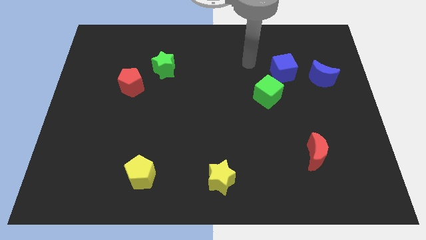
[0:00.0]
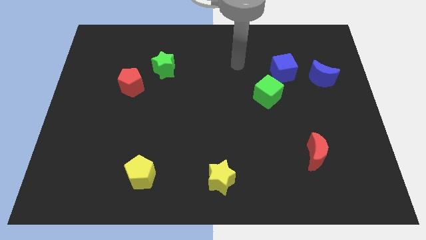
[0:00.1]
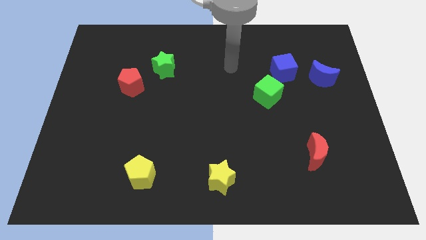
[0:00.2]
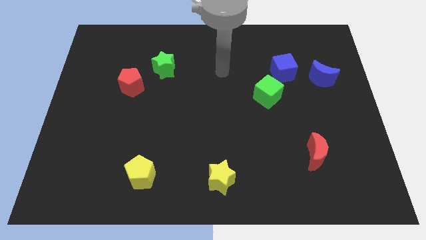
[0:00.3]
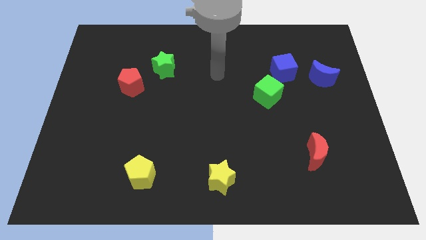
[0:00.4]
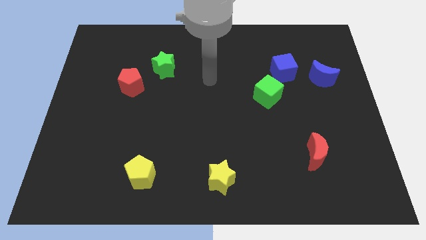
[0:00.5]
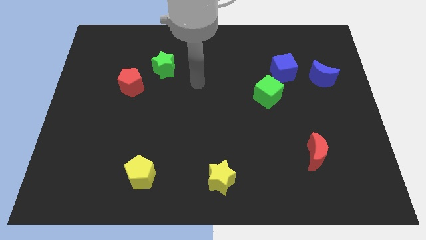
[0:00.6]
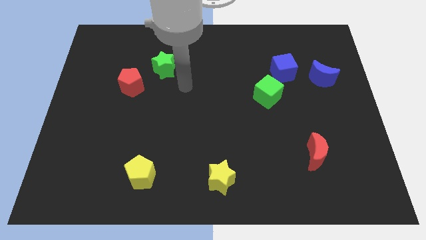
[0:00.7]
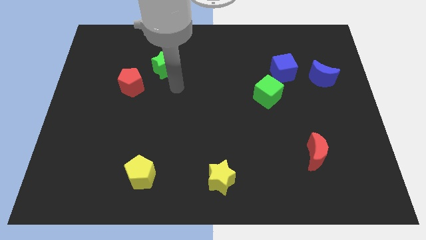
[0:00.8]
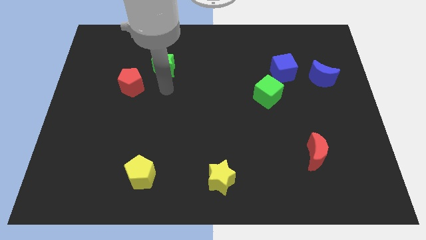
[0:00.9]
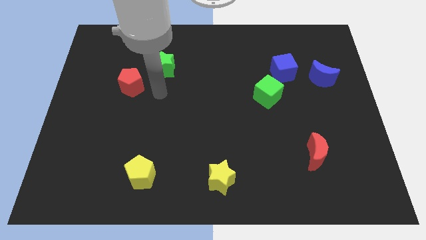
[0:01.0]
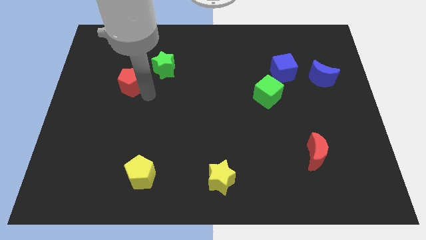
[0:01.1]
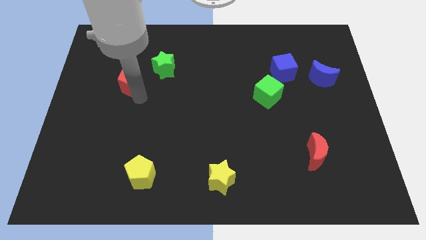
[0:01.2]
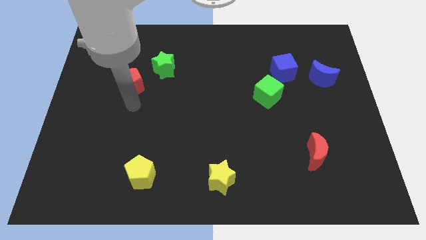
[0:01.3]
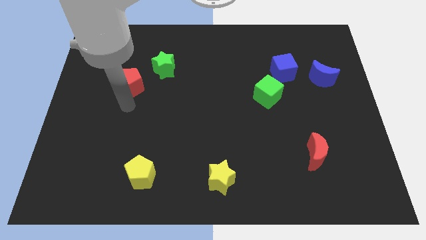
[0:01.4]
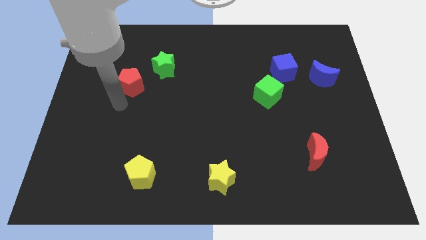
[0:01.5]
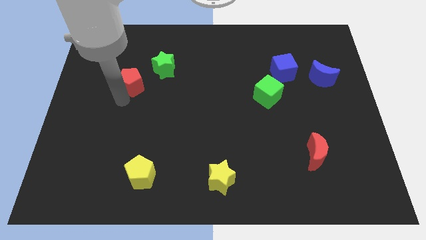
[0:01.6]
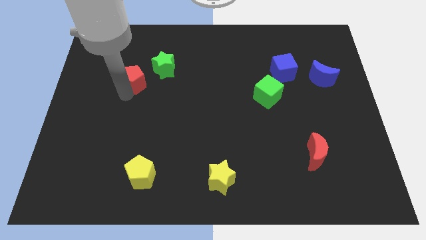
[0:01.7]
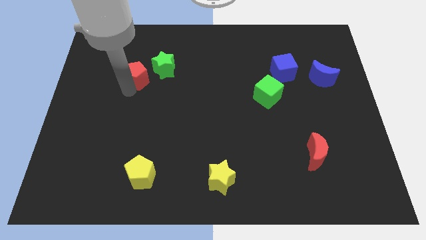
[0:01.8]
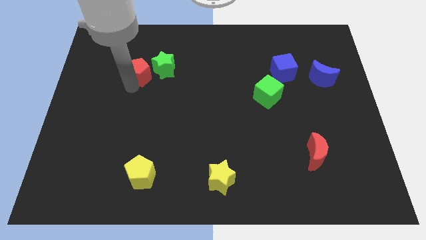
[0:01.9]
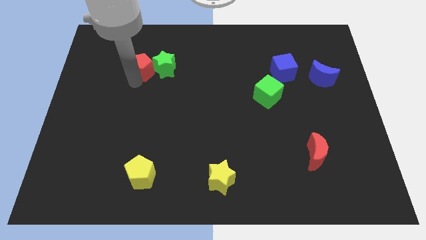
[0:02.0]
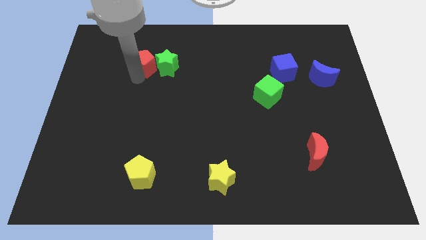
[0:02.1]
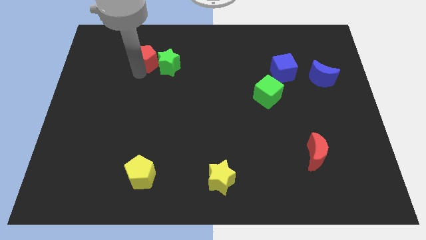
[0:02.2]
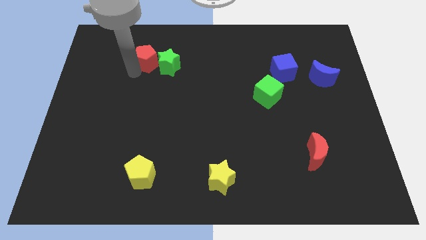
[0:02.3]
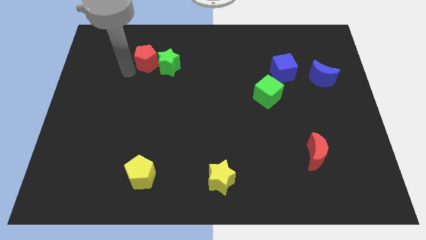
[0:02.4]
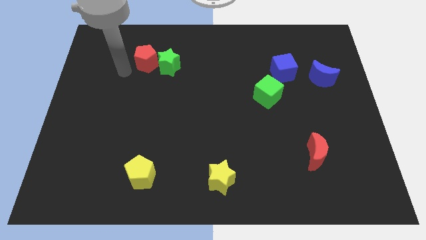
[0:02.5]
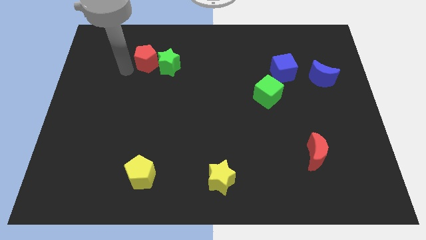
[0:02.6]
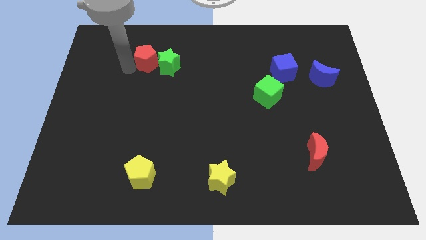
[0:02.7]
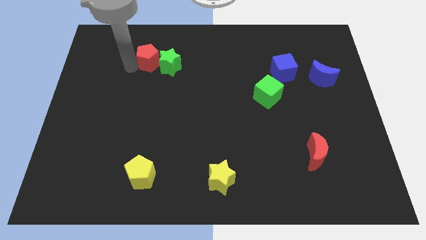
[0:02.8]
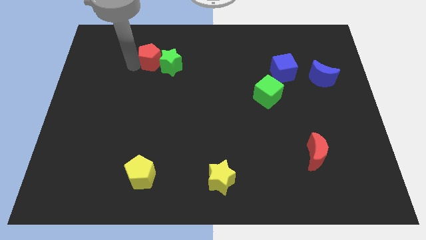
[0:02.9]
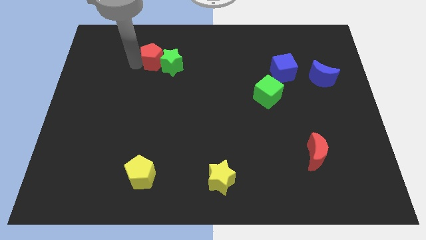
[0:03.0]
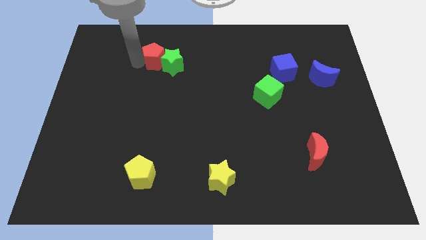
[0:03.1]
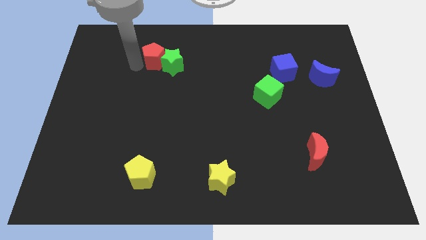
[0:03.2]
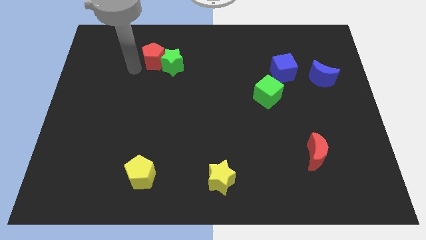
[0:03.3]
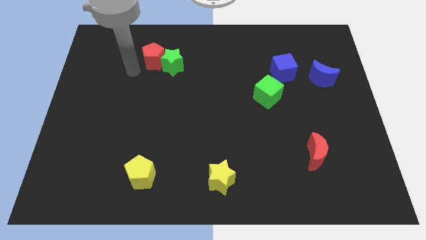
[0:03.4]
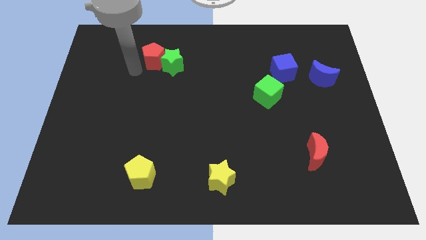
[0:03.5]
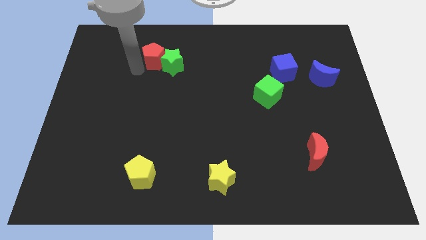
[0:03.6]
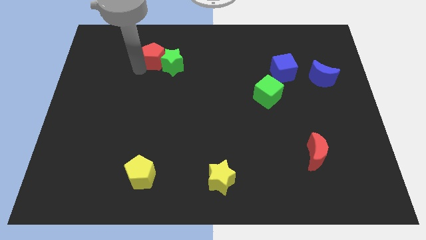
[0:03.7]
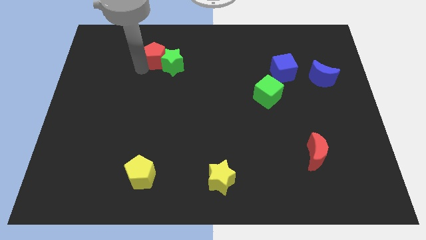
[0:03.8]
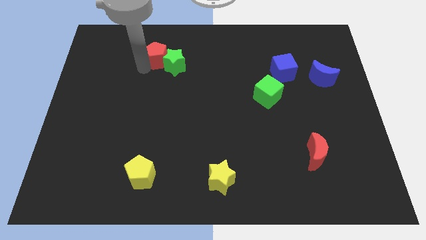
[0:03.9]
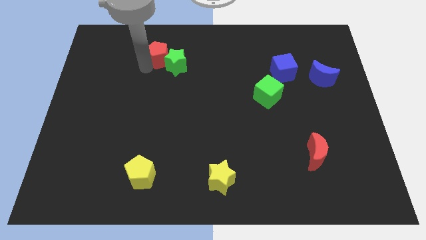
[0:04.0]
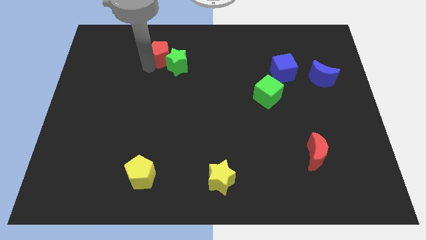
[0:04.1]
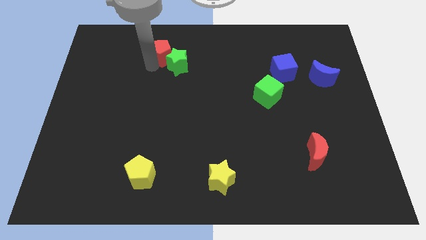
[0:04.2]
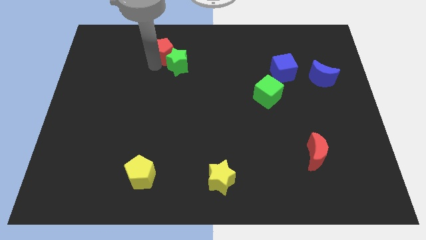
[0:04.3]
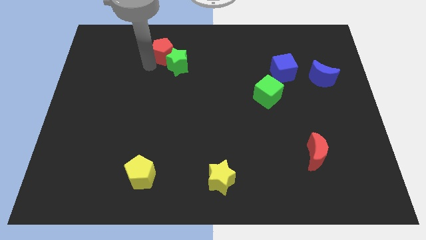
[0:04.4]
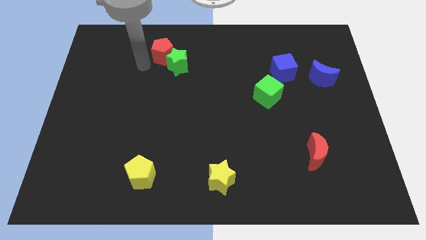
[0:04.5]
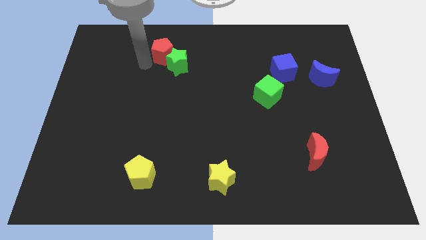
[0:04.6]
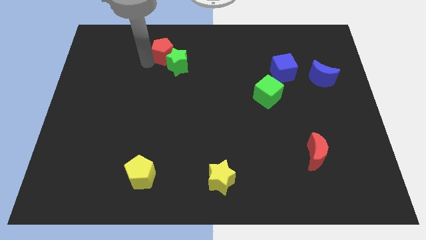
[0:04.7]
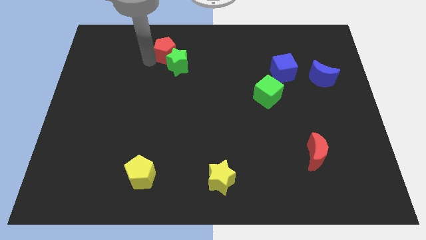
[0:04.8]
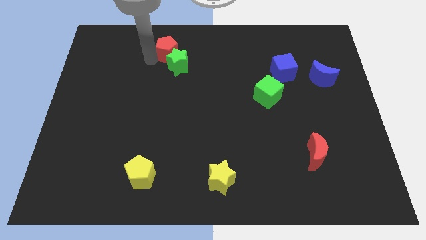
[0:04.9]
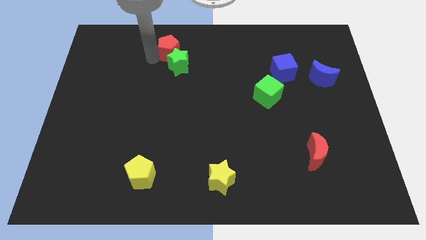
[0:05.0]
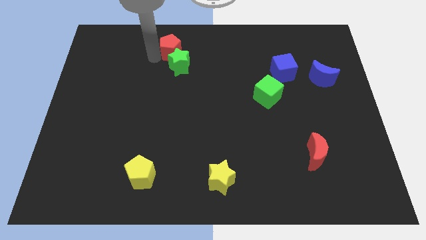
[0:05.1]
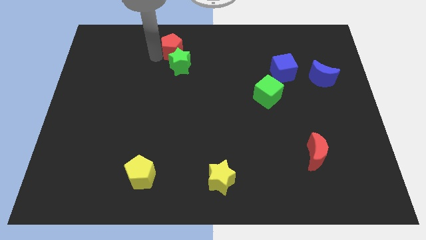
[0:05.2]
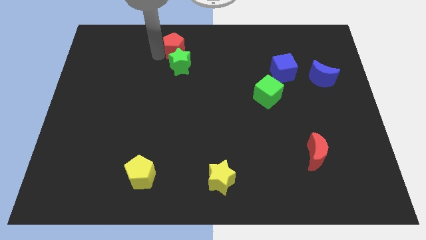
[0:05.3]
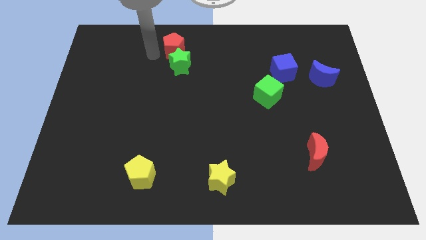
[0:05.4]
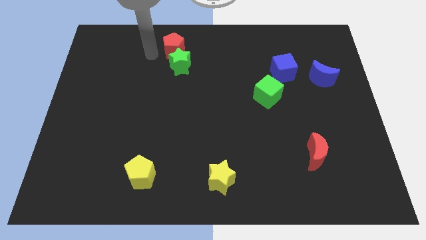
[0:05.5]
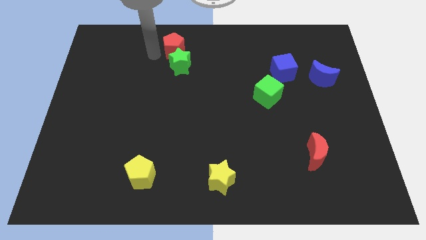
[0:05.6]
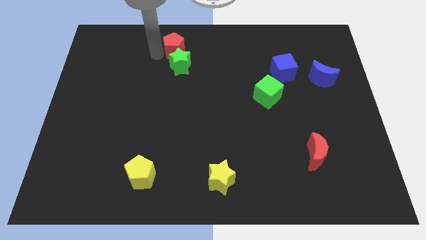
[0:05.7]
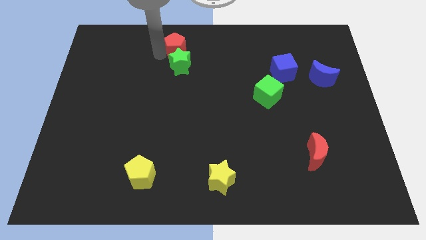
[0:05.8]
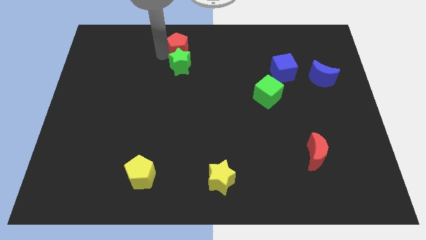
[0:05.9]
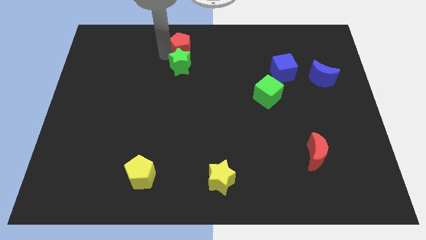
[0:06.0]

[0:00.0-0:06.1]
push the red pentagon to the top side
